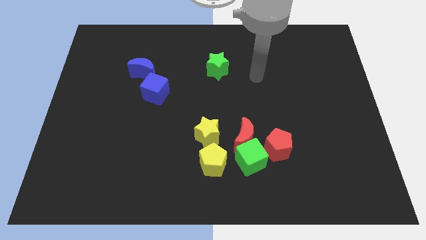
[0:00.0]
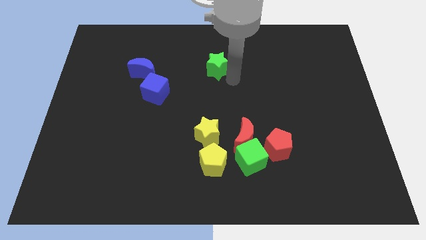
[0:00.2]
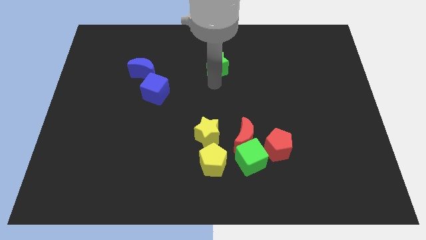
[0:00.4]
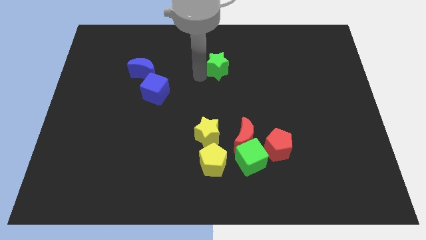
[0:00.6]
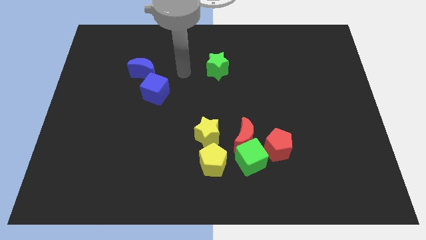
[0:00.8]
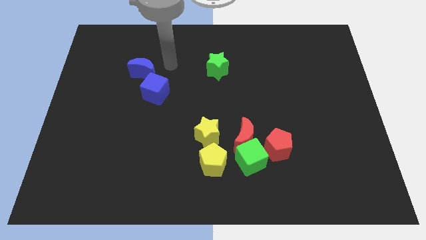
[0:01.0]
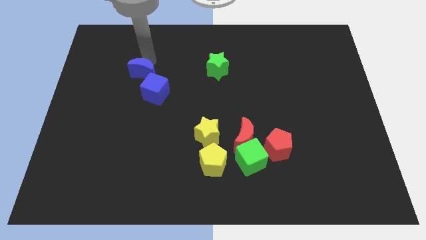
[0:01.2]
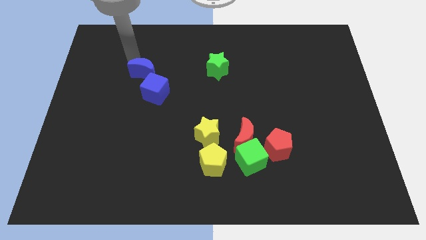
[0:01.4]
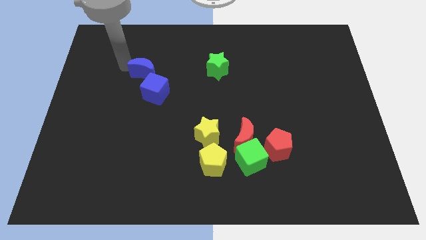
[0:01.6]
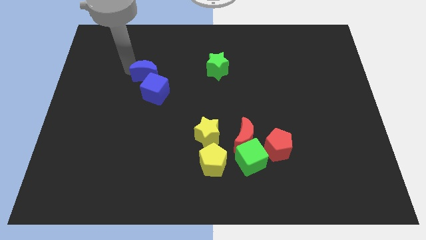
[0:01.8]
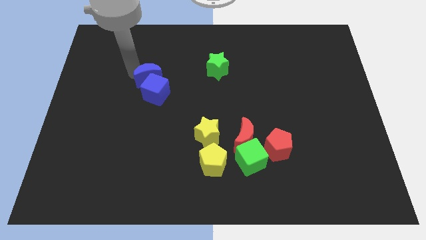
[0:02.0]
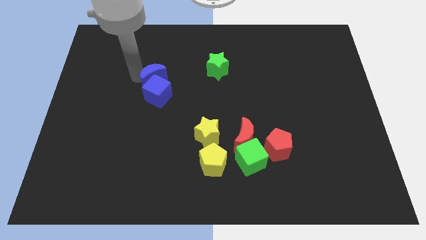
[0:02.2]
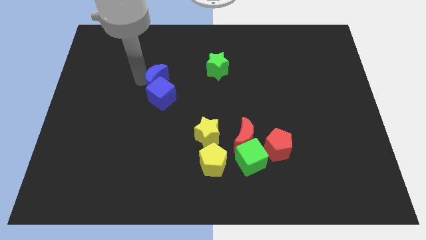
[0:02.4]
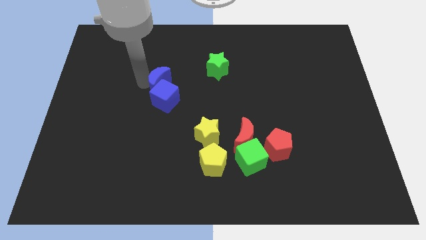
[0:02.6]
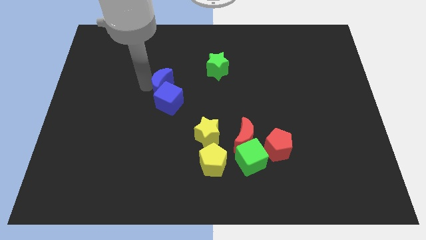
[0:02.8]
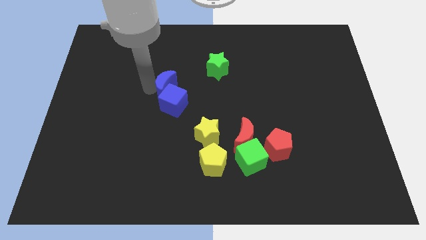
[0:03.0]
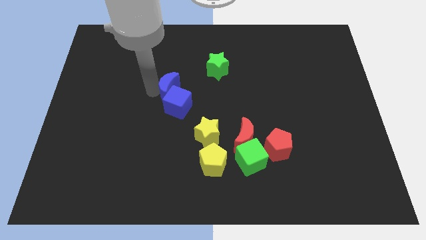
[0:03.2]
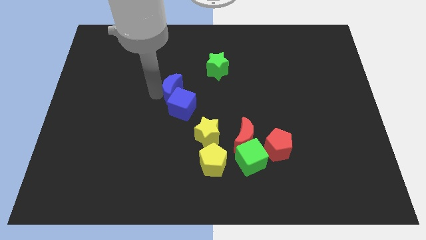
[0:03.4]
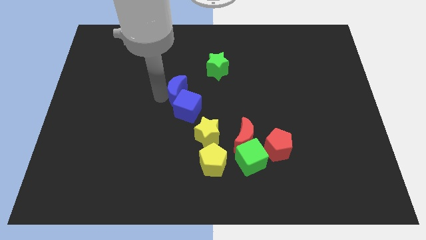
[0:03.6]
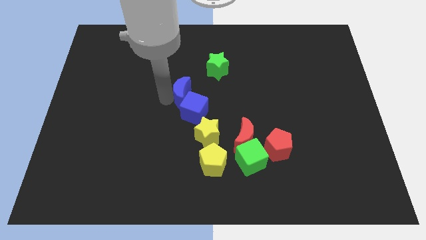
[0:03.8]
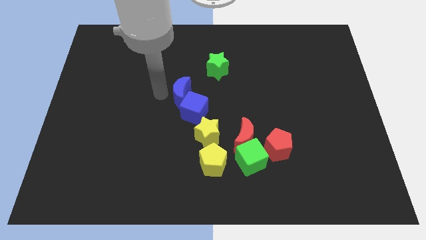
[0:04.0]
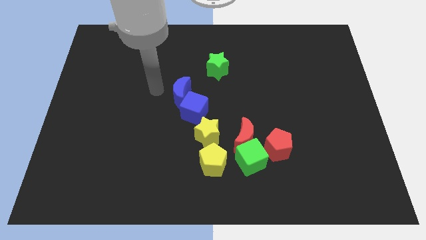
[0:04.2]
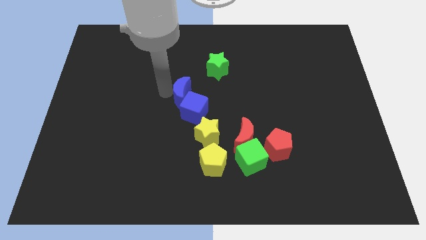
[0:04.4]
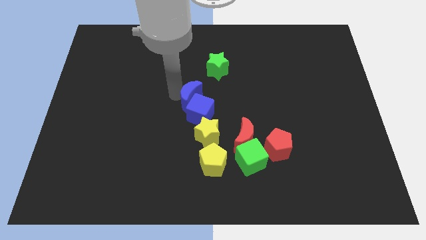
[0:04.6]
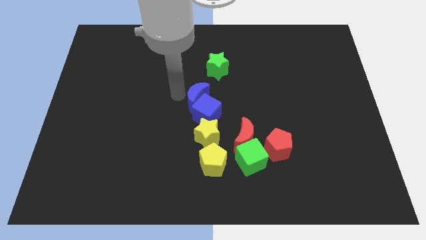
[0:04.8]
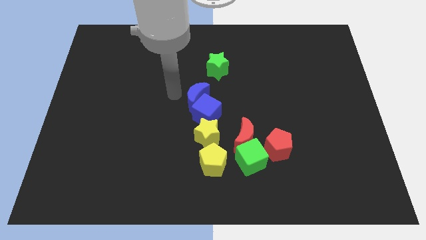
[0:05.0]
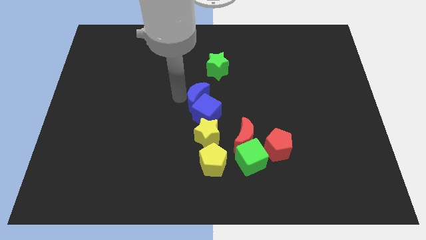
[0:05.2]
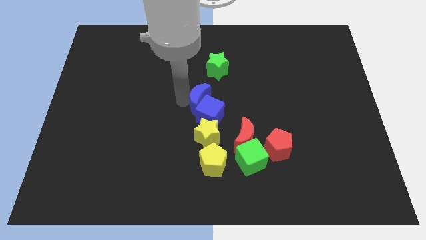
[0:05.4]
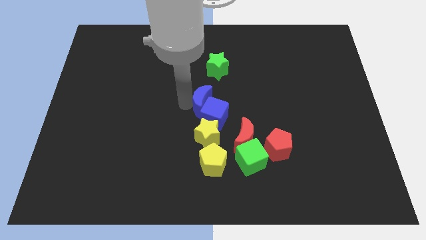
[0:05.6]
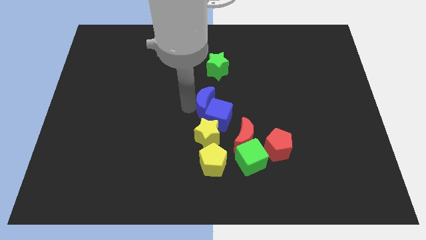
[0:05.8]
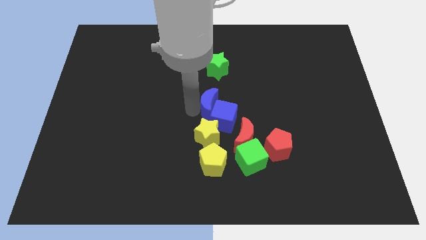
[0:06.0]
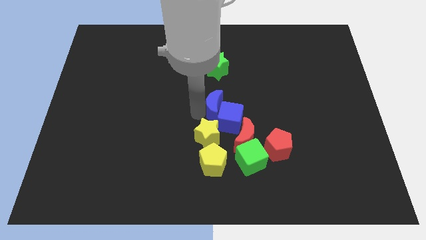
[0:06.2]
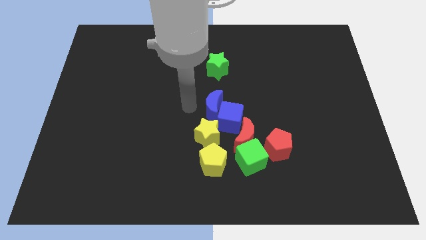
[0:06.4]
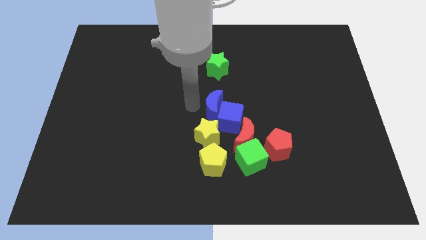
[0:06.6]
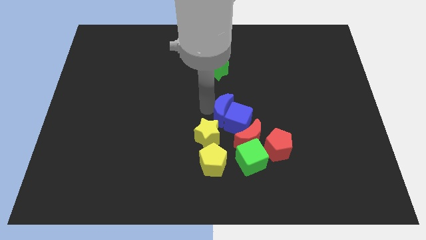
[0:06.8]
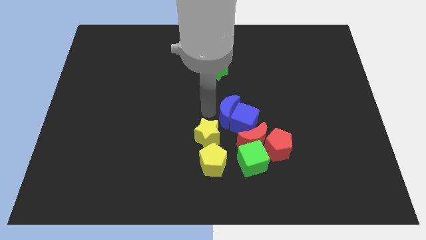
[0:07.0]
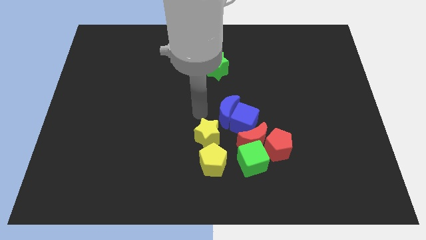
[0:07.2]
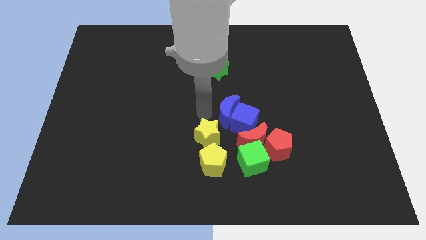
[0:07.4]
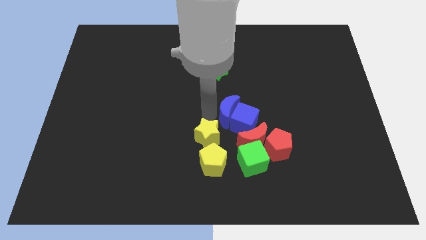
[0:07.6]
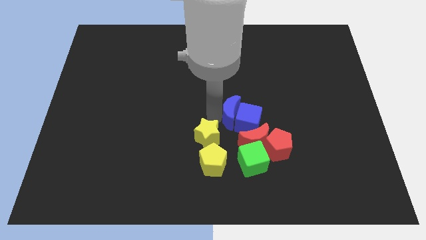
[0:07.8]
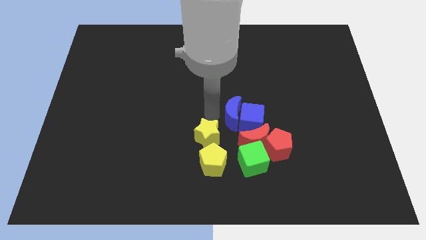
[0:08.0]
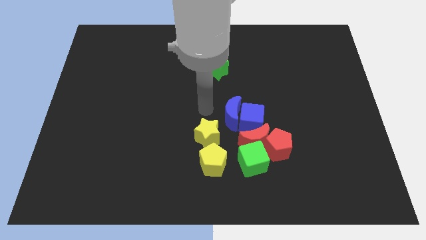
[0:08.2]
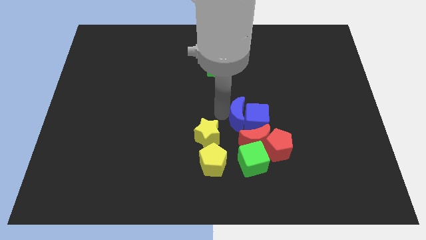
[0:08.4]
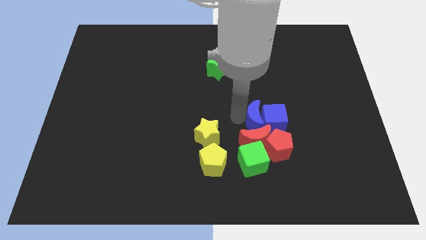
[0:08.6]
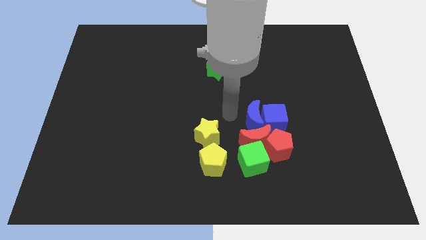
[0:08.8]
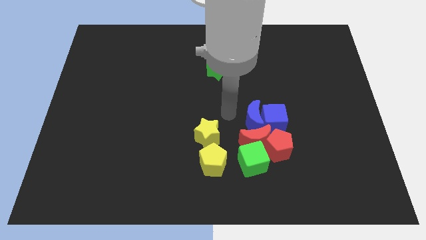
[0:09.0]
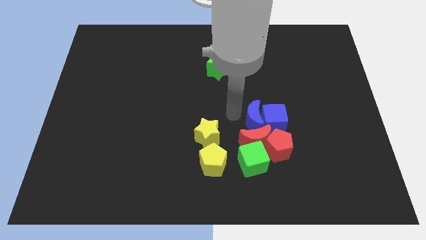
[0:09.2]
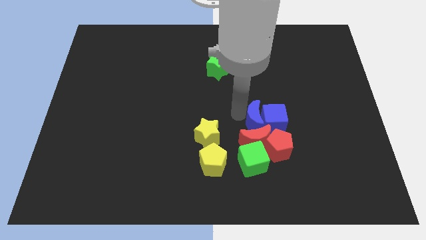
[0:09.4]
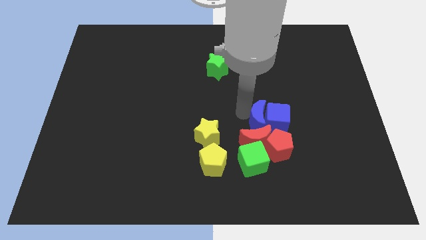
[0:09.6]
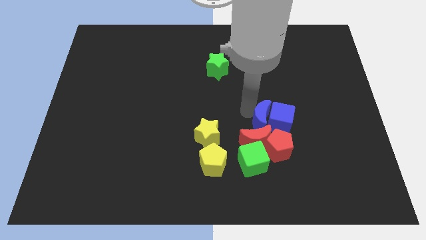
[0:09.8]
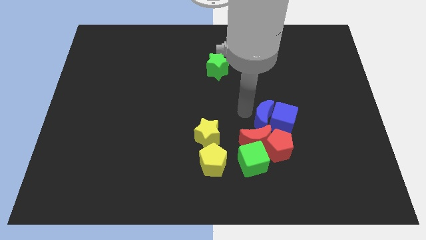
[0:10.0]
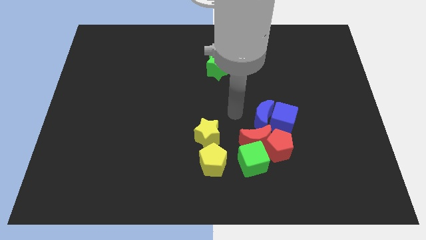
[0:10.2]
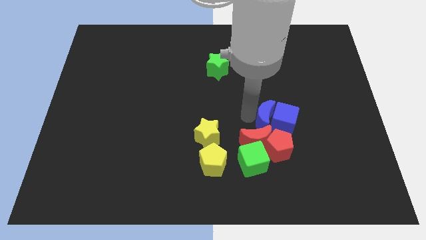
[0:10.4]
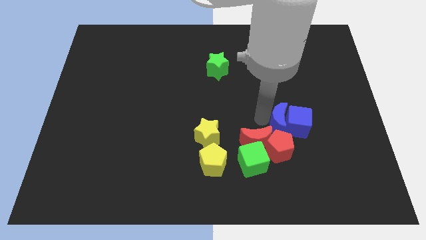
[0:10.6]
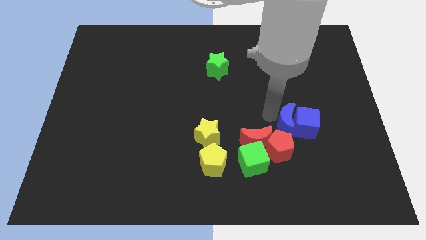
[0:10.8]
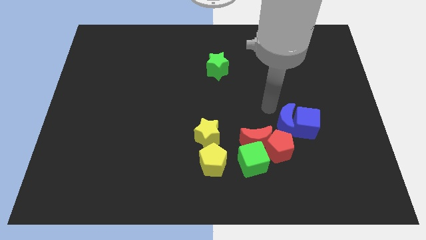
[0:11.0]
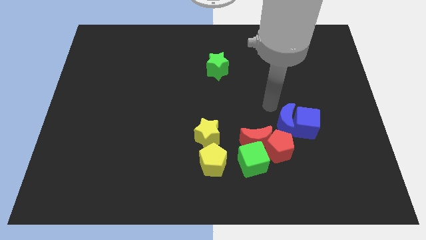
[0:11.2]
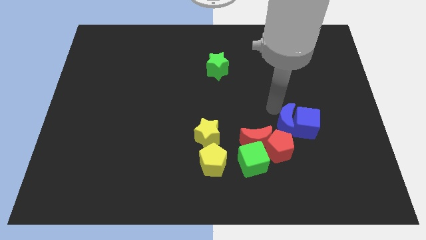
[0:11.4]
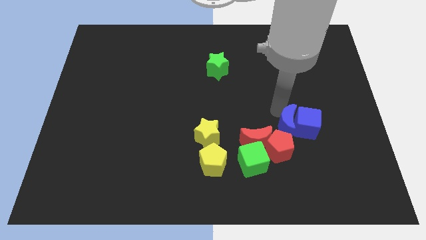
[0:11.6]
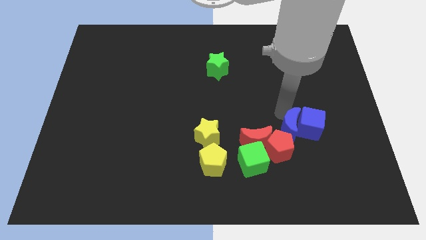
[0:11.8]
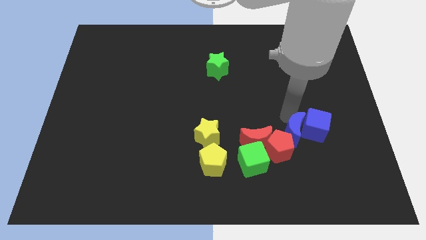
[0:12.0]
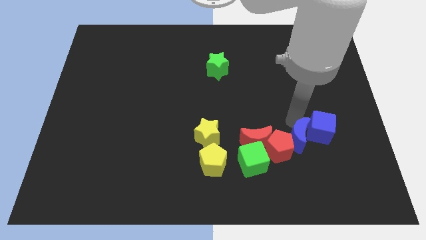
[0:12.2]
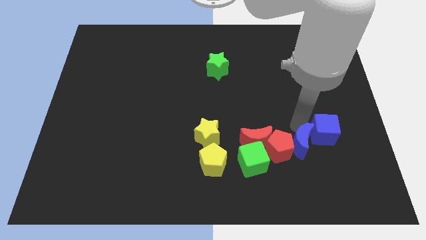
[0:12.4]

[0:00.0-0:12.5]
put the blue moon right of the green cube

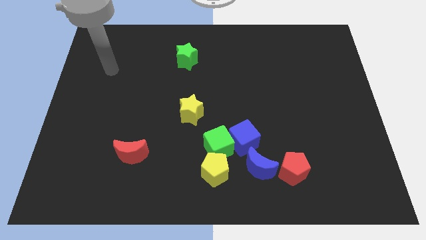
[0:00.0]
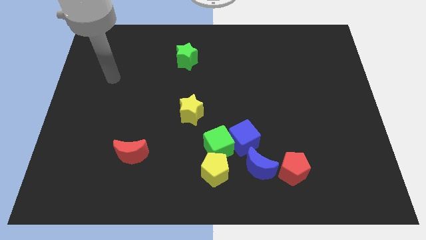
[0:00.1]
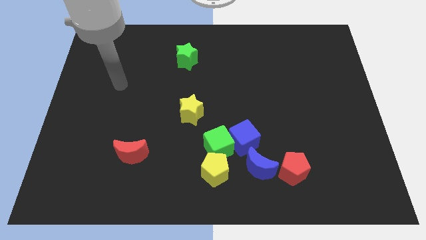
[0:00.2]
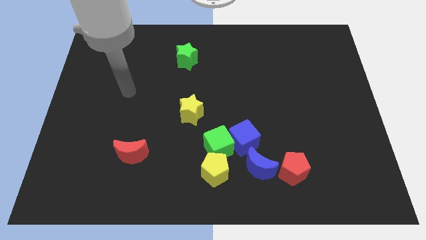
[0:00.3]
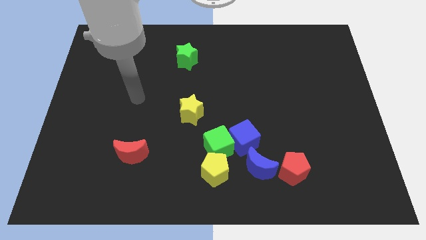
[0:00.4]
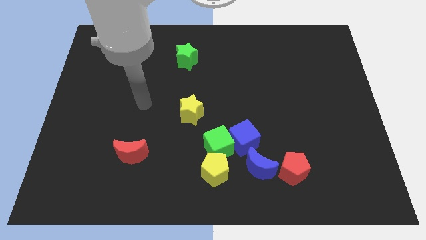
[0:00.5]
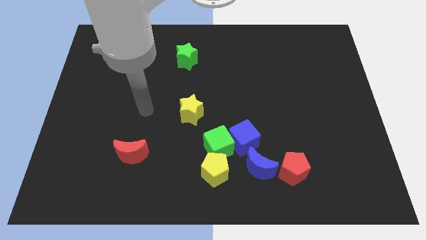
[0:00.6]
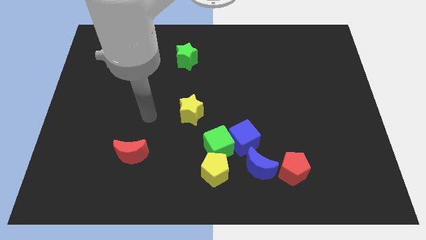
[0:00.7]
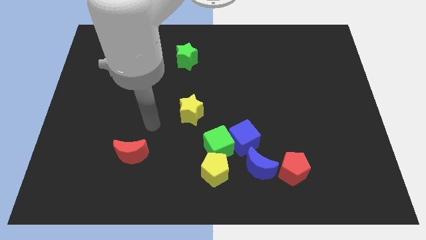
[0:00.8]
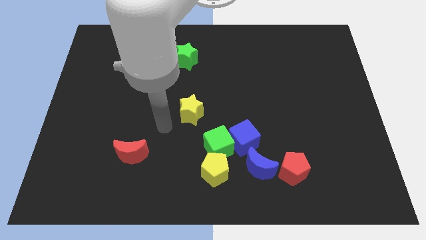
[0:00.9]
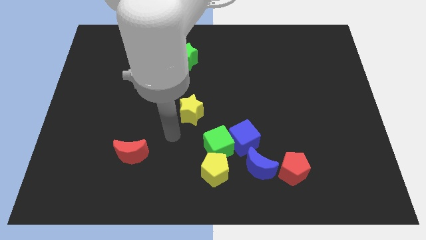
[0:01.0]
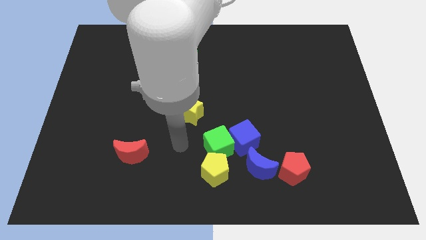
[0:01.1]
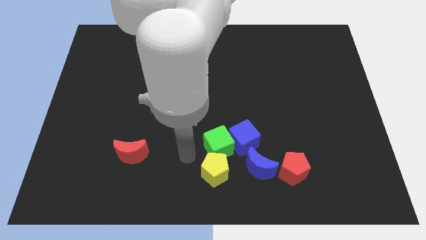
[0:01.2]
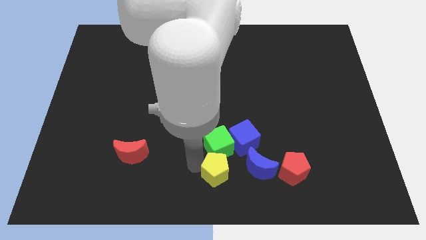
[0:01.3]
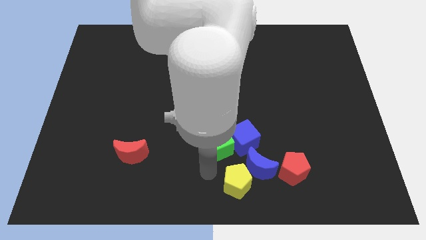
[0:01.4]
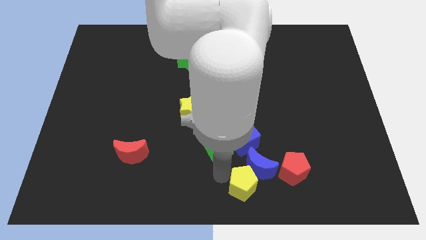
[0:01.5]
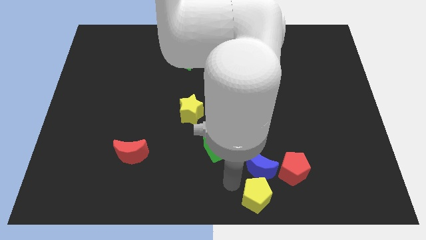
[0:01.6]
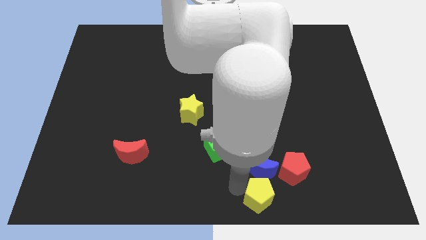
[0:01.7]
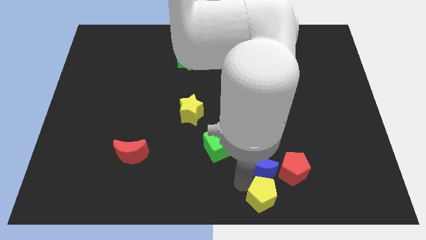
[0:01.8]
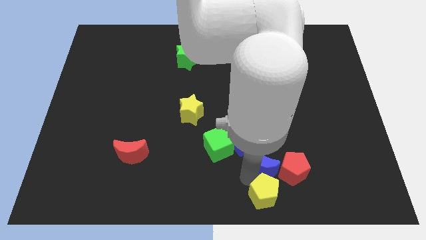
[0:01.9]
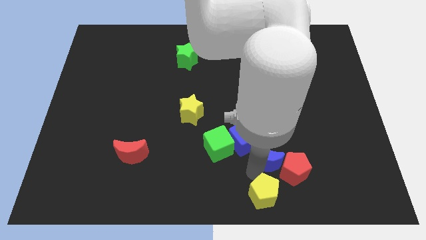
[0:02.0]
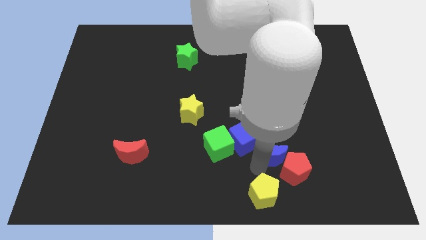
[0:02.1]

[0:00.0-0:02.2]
move the blue moon to the right side of the blue cube
